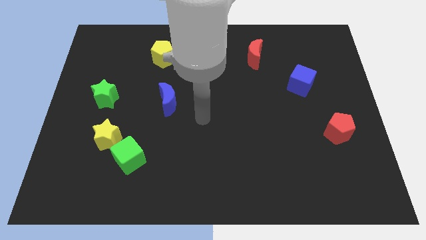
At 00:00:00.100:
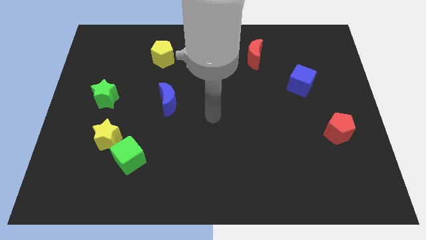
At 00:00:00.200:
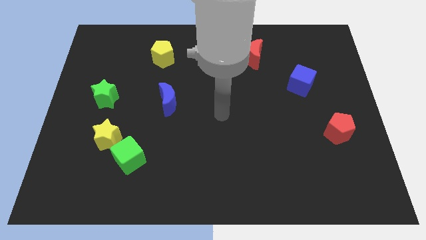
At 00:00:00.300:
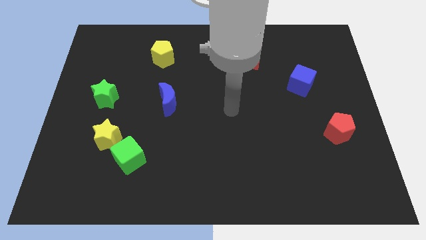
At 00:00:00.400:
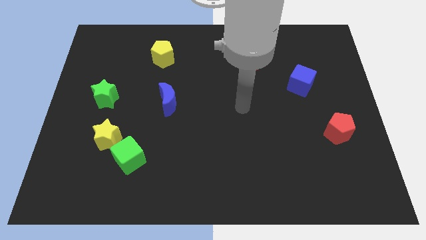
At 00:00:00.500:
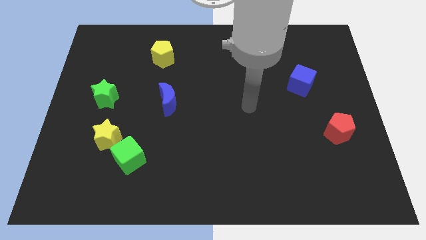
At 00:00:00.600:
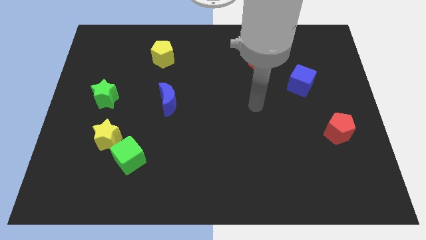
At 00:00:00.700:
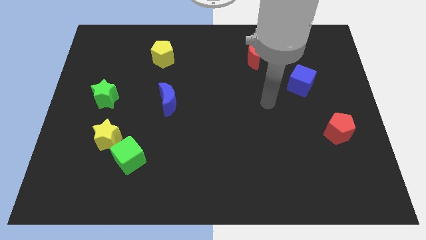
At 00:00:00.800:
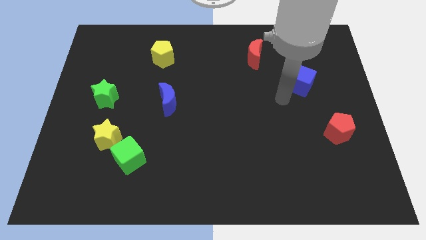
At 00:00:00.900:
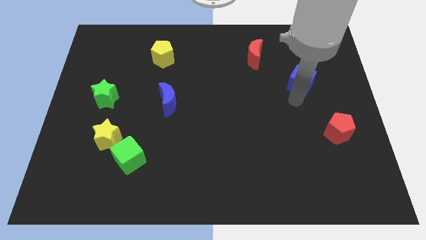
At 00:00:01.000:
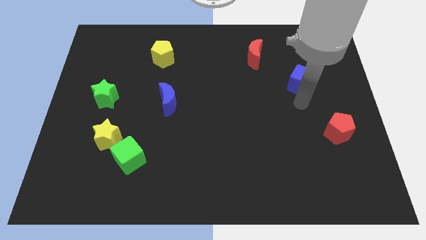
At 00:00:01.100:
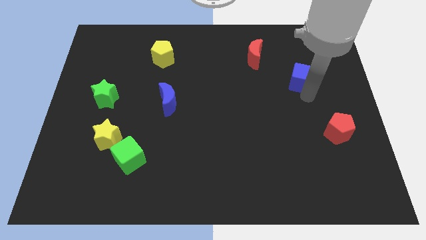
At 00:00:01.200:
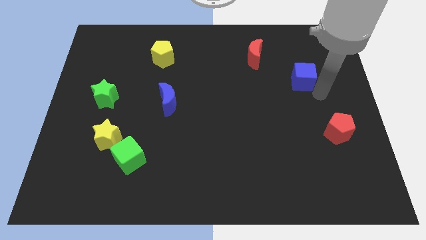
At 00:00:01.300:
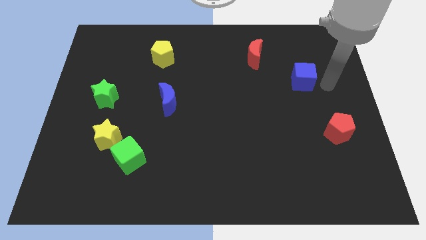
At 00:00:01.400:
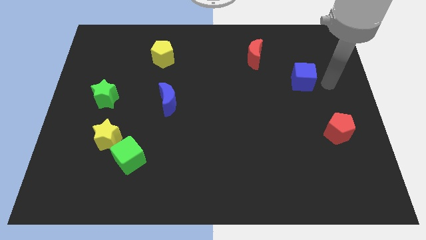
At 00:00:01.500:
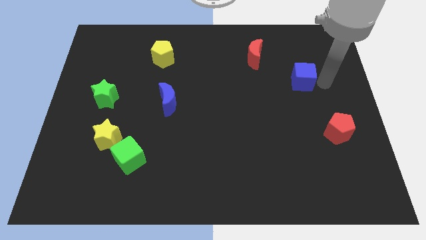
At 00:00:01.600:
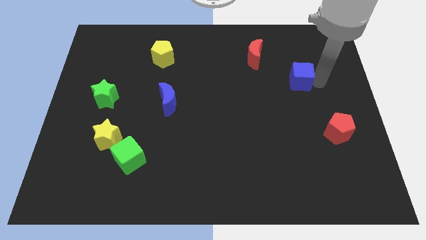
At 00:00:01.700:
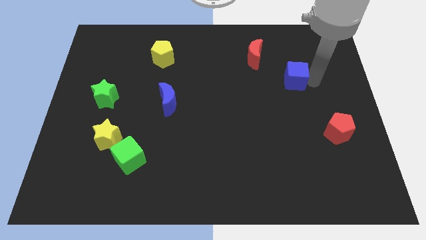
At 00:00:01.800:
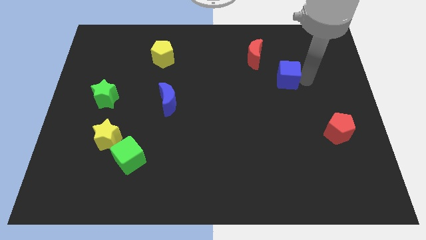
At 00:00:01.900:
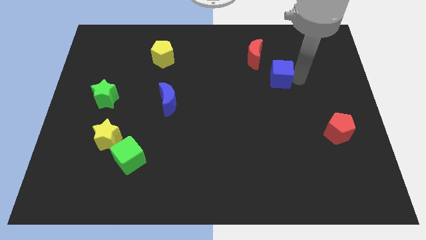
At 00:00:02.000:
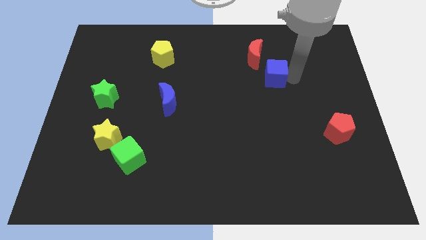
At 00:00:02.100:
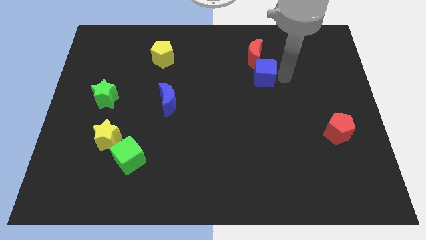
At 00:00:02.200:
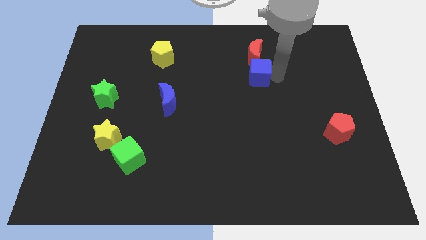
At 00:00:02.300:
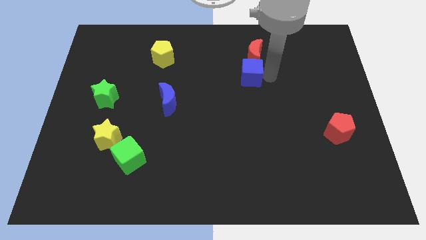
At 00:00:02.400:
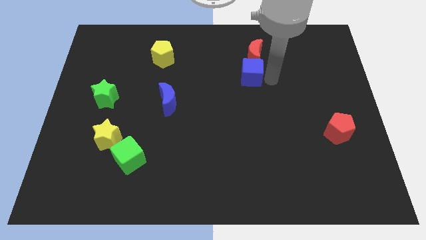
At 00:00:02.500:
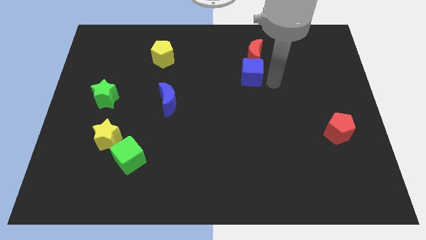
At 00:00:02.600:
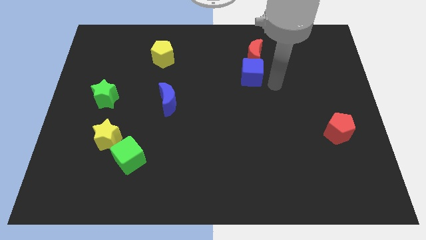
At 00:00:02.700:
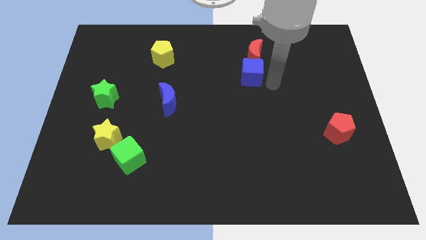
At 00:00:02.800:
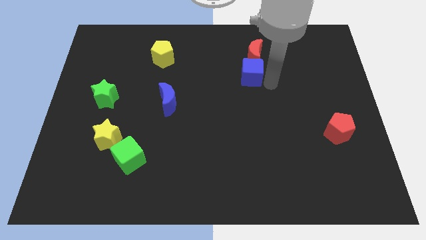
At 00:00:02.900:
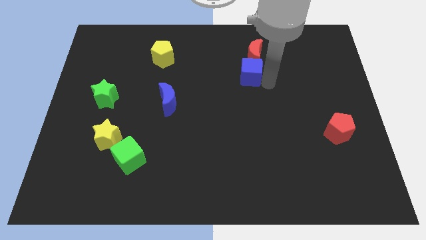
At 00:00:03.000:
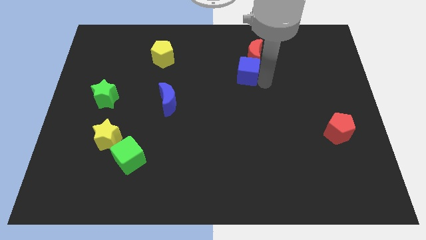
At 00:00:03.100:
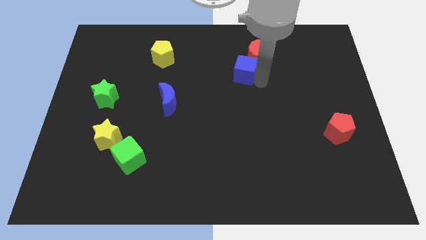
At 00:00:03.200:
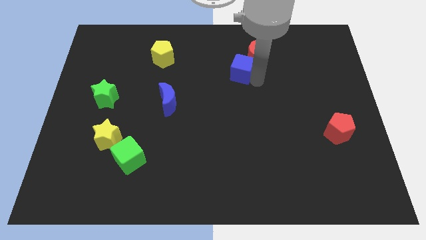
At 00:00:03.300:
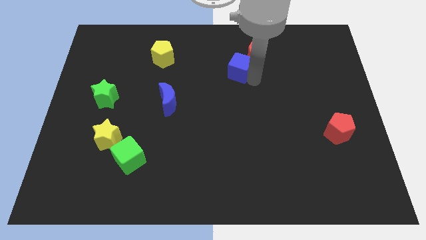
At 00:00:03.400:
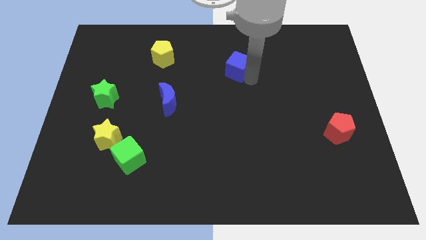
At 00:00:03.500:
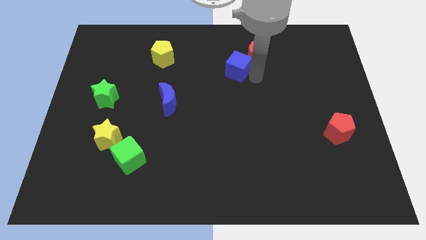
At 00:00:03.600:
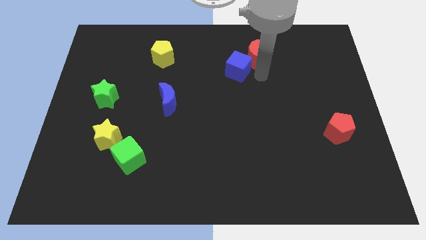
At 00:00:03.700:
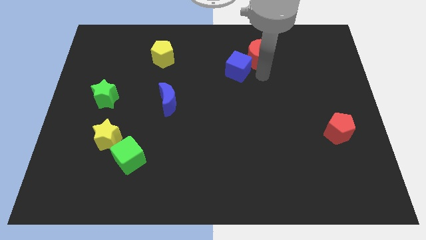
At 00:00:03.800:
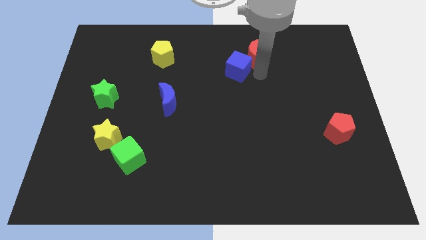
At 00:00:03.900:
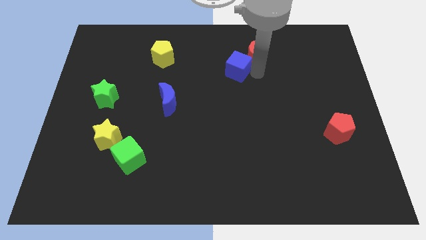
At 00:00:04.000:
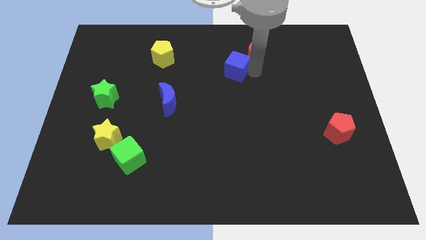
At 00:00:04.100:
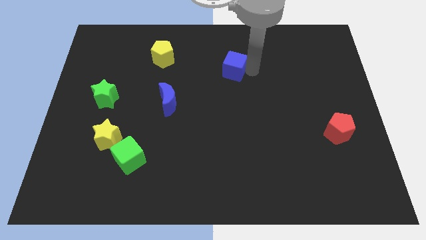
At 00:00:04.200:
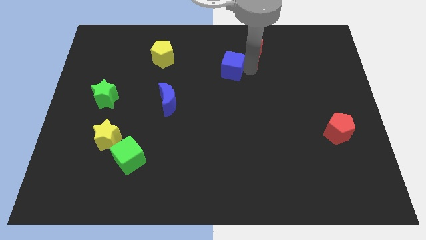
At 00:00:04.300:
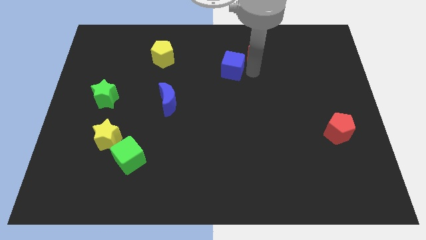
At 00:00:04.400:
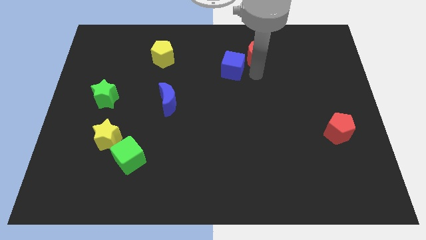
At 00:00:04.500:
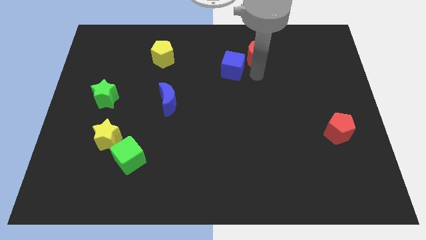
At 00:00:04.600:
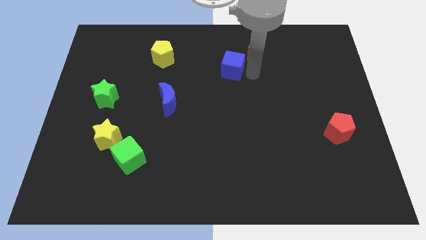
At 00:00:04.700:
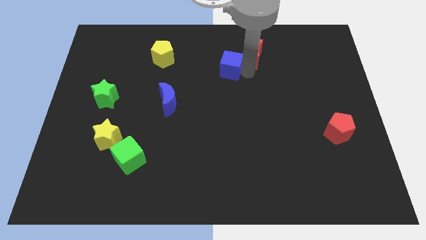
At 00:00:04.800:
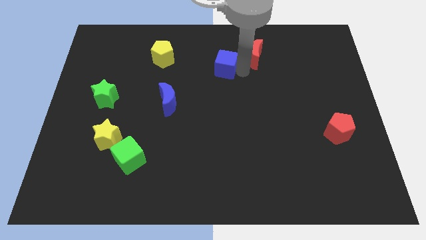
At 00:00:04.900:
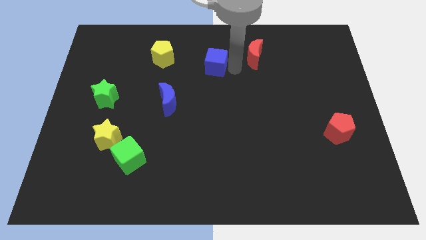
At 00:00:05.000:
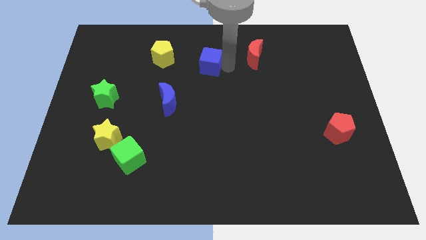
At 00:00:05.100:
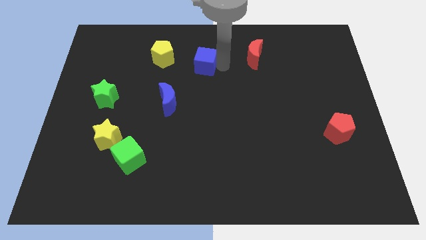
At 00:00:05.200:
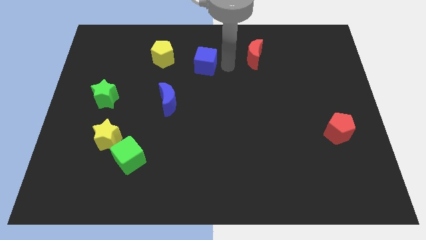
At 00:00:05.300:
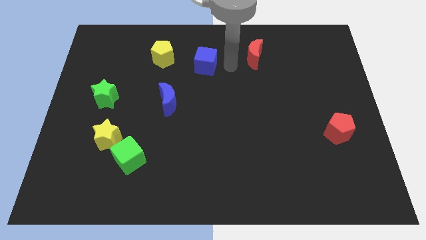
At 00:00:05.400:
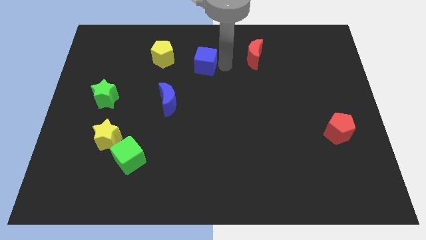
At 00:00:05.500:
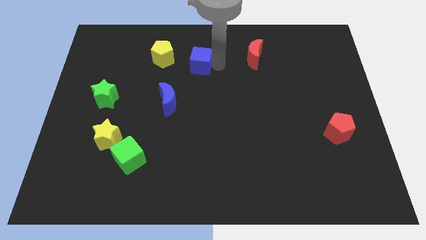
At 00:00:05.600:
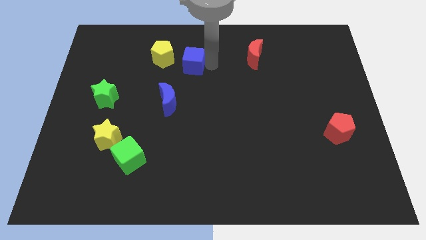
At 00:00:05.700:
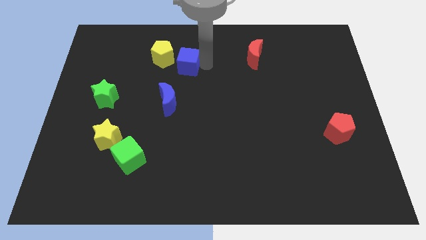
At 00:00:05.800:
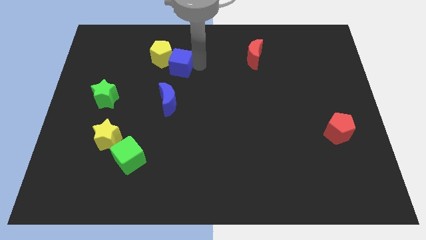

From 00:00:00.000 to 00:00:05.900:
move the blue cube next to the yellow pentagon

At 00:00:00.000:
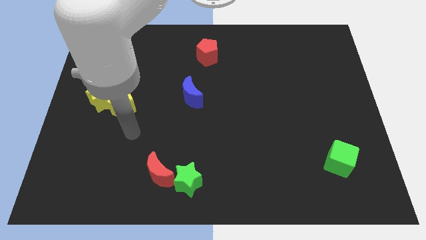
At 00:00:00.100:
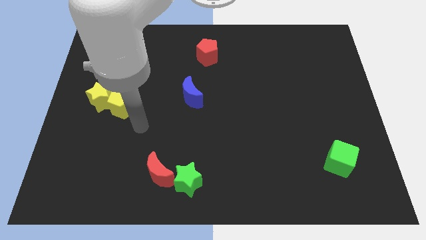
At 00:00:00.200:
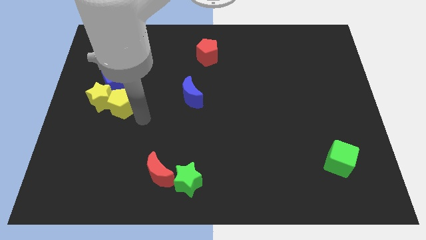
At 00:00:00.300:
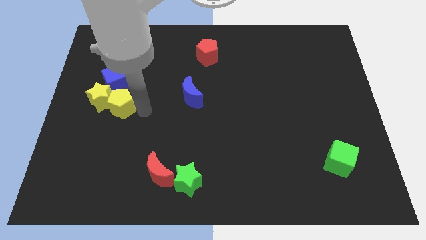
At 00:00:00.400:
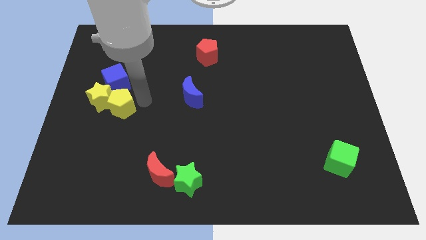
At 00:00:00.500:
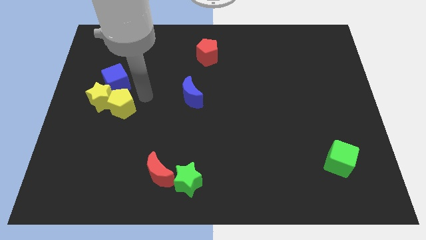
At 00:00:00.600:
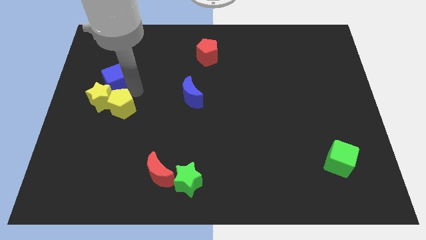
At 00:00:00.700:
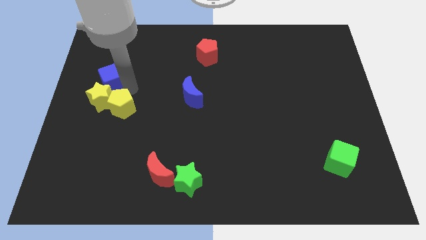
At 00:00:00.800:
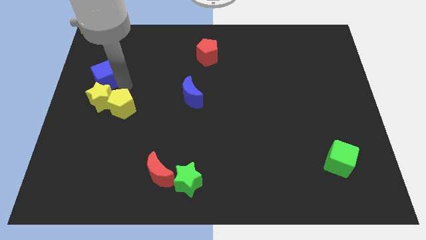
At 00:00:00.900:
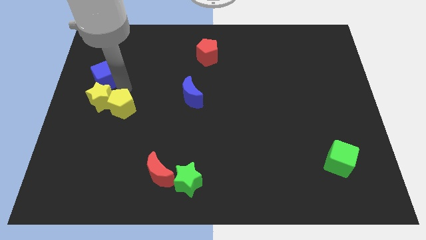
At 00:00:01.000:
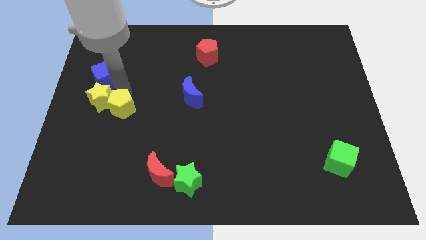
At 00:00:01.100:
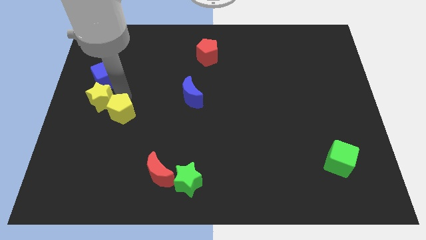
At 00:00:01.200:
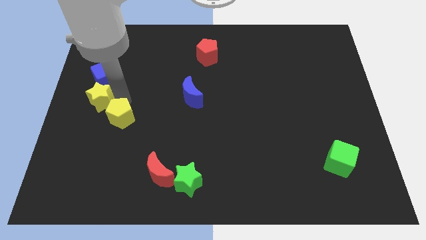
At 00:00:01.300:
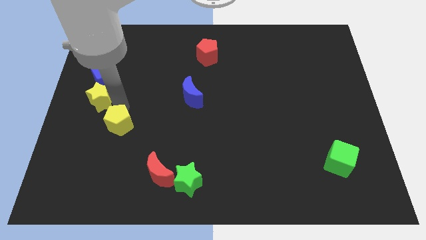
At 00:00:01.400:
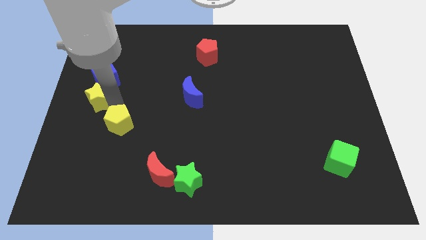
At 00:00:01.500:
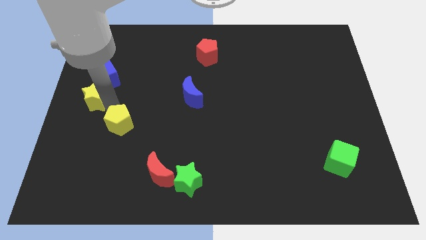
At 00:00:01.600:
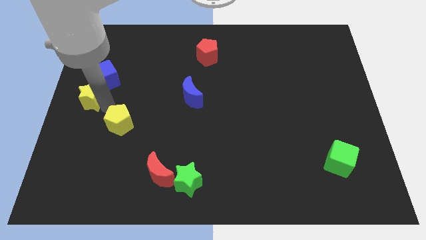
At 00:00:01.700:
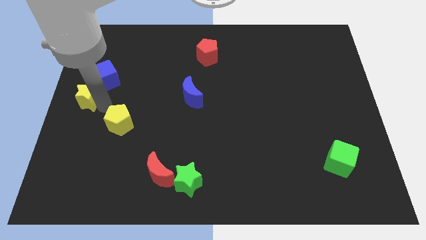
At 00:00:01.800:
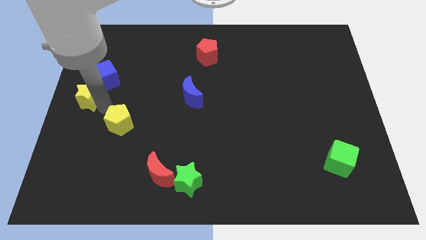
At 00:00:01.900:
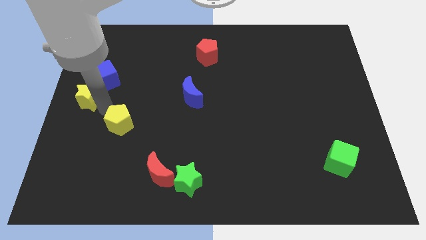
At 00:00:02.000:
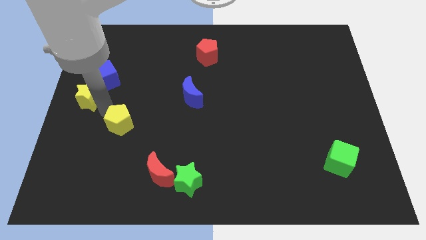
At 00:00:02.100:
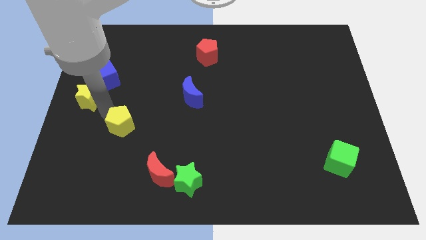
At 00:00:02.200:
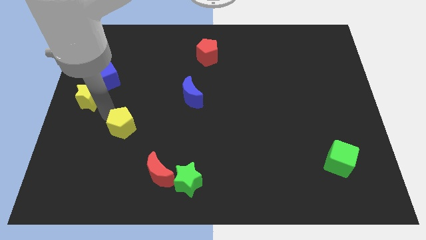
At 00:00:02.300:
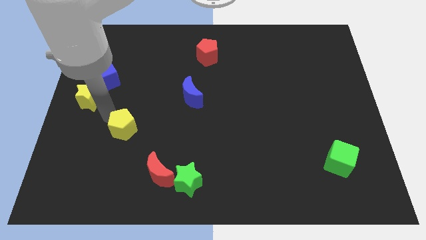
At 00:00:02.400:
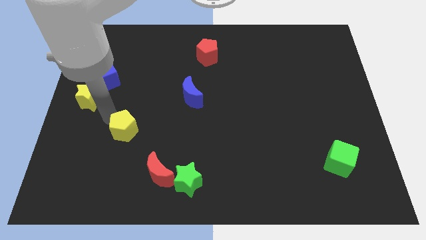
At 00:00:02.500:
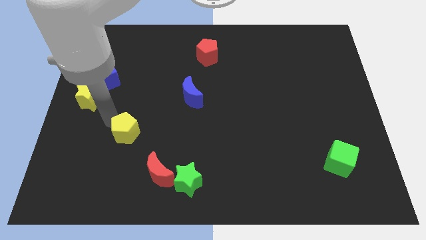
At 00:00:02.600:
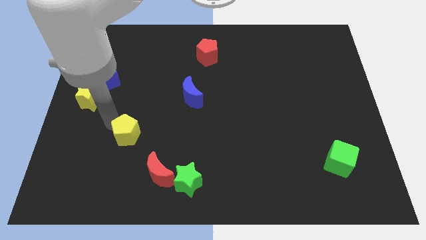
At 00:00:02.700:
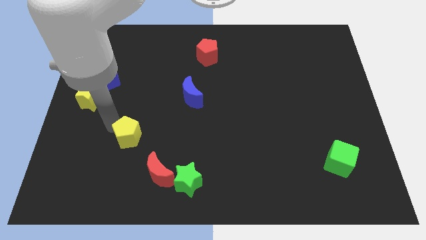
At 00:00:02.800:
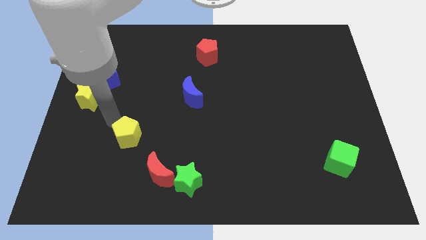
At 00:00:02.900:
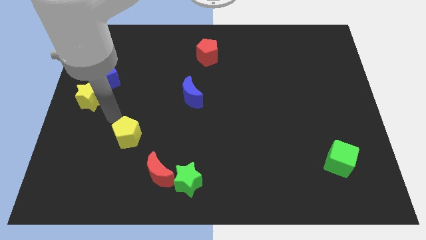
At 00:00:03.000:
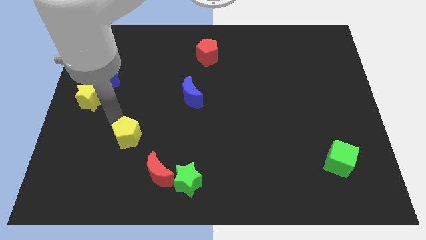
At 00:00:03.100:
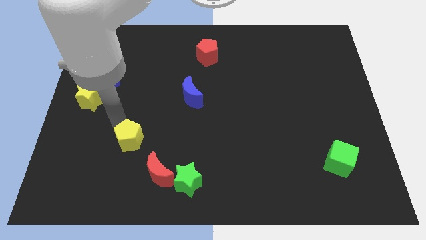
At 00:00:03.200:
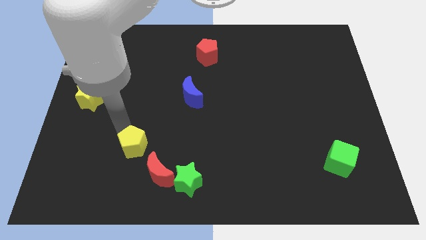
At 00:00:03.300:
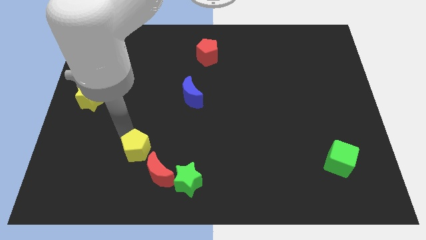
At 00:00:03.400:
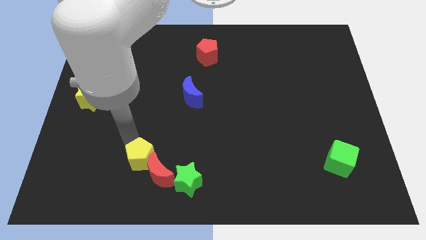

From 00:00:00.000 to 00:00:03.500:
move the yellow pentagon next to the red moon
